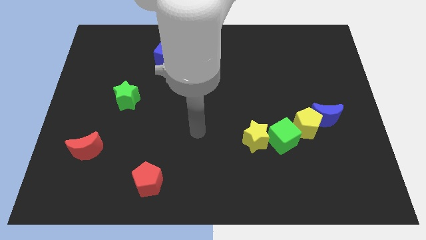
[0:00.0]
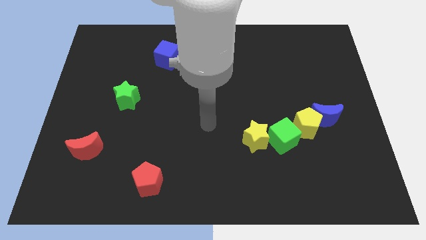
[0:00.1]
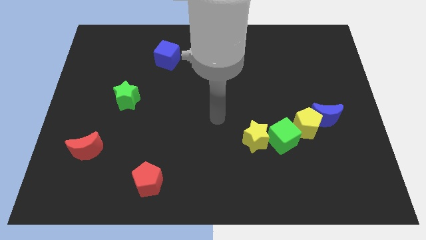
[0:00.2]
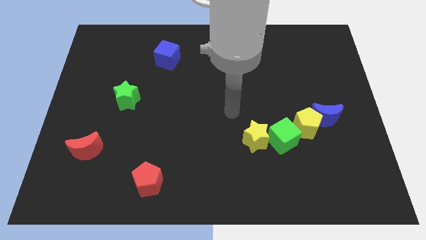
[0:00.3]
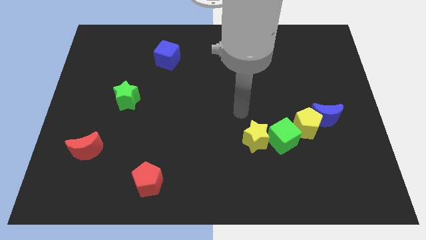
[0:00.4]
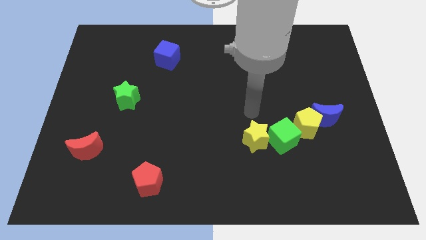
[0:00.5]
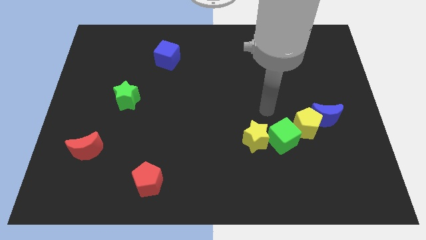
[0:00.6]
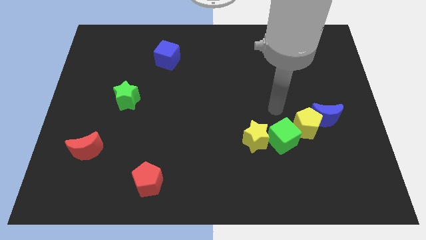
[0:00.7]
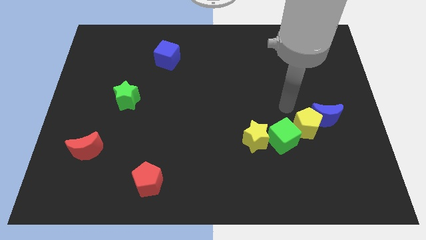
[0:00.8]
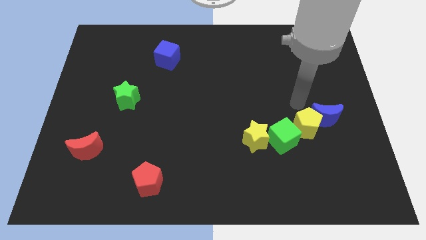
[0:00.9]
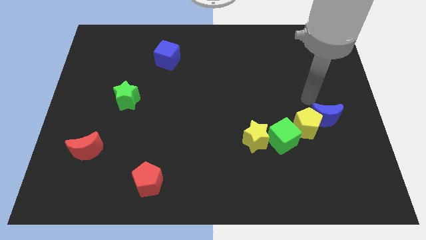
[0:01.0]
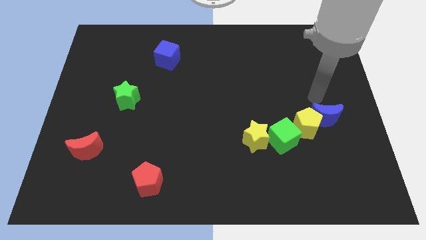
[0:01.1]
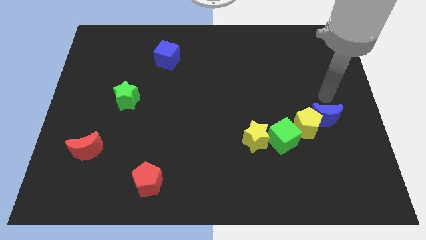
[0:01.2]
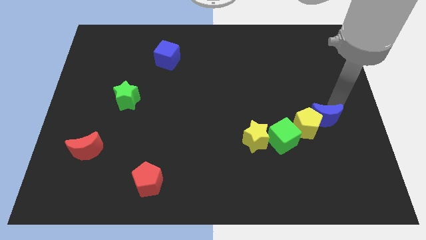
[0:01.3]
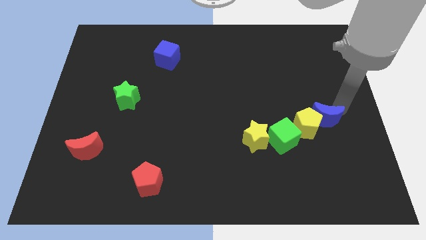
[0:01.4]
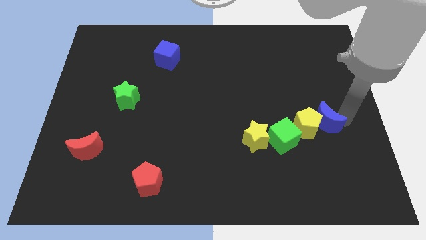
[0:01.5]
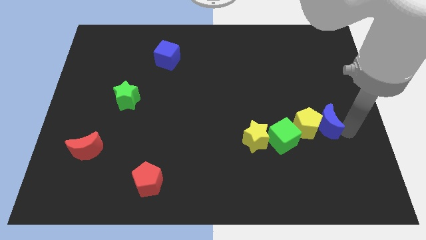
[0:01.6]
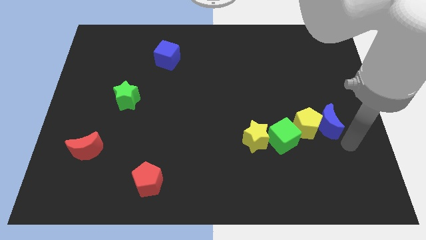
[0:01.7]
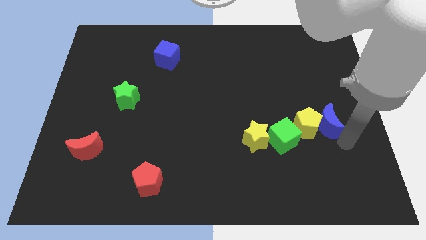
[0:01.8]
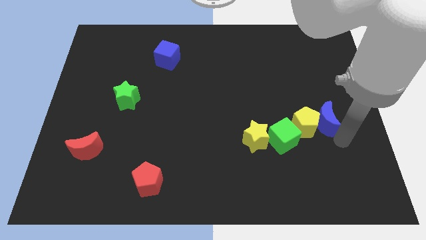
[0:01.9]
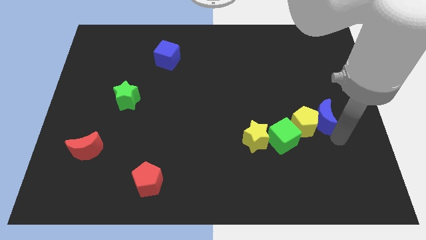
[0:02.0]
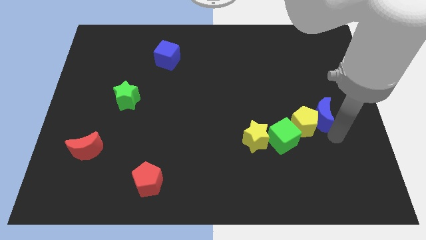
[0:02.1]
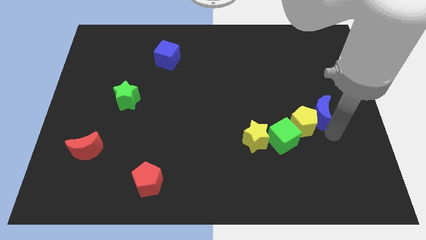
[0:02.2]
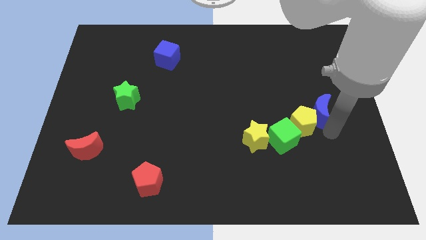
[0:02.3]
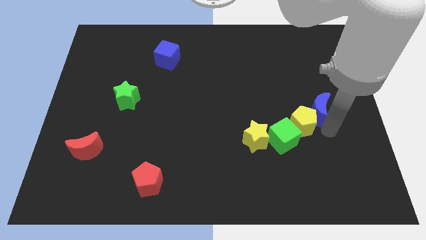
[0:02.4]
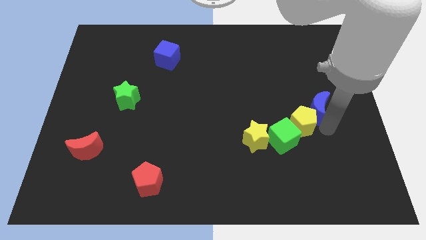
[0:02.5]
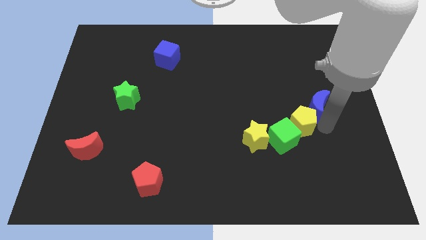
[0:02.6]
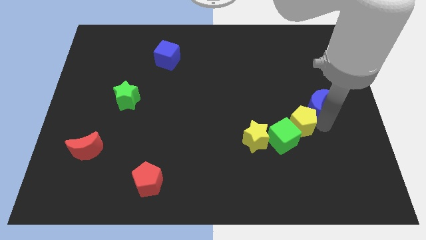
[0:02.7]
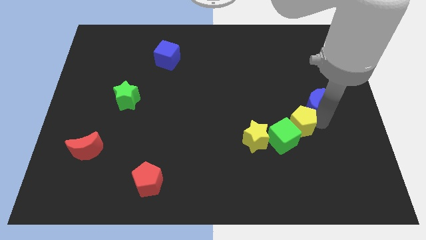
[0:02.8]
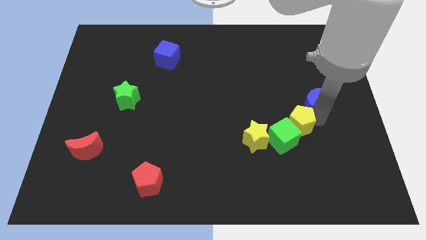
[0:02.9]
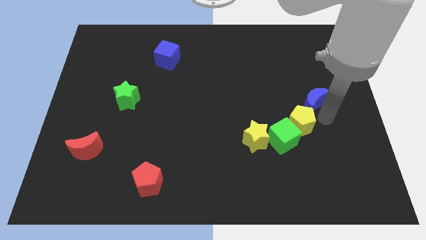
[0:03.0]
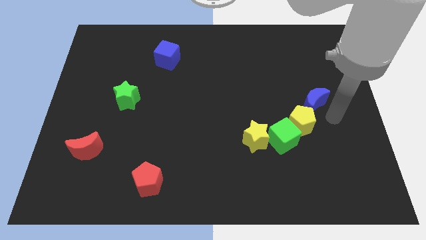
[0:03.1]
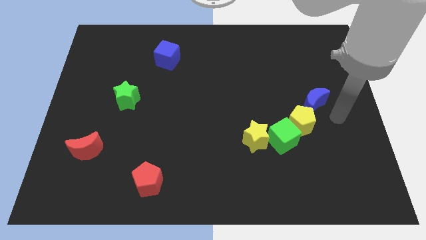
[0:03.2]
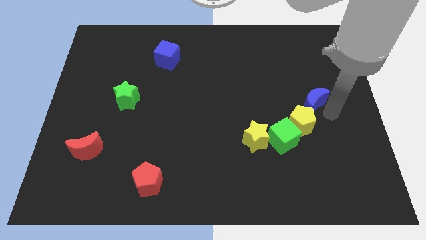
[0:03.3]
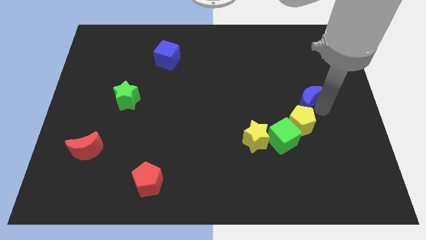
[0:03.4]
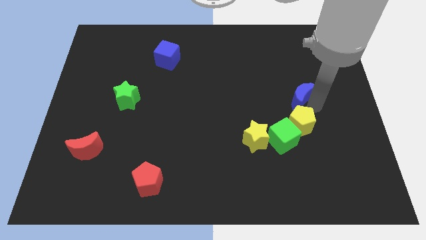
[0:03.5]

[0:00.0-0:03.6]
slightly push the blue moon up and to the left diagonally

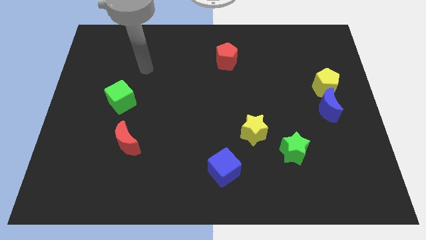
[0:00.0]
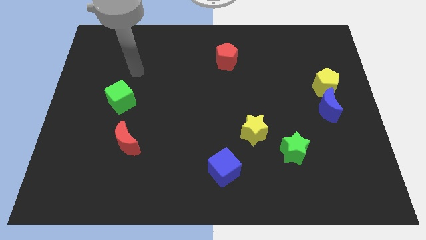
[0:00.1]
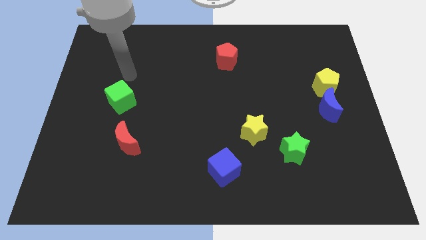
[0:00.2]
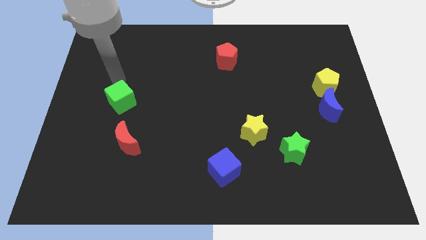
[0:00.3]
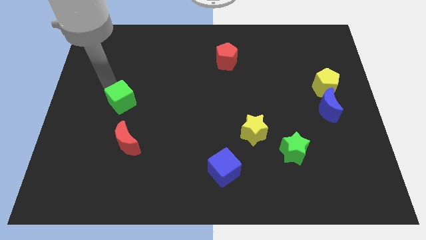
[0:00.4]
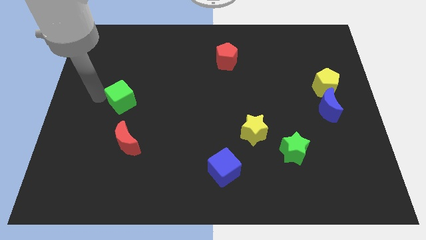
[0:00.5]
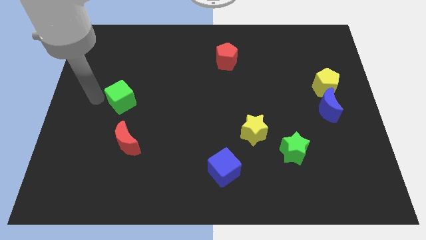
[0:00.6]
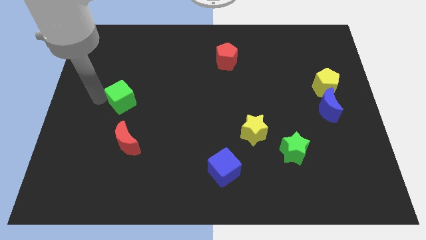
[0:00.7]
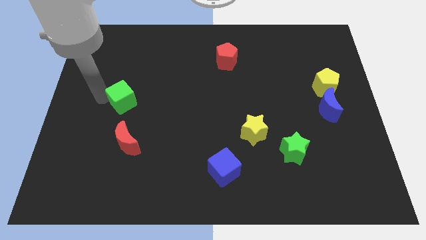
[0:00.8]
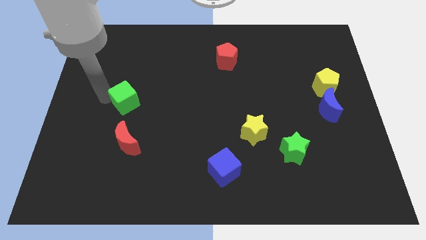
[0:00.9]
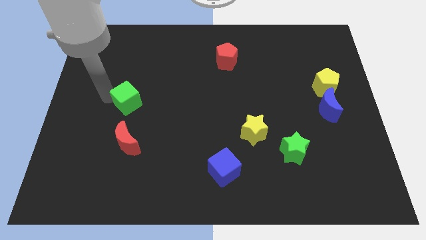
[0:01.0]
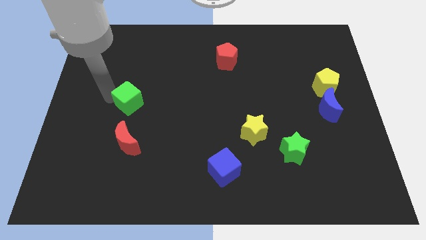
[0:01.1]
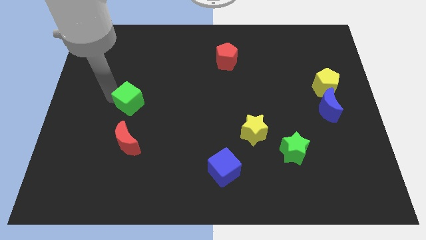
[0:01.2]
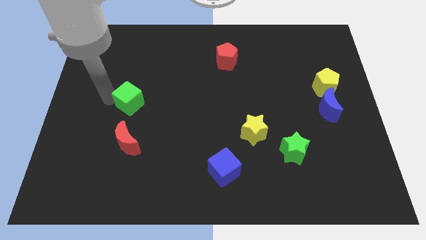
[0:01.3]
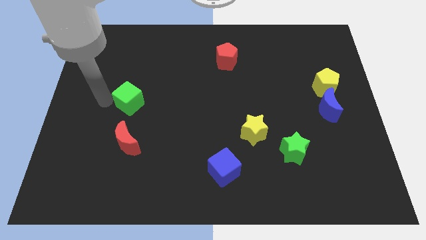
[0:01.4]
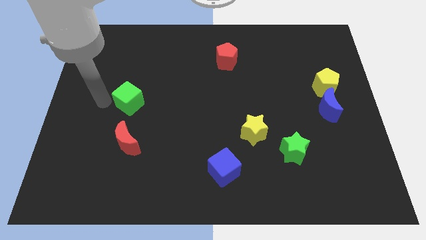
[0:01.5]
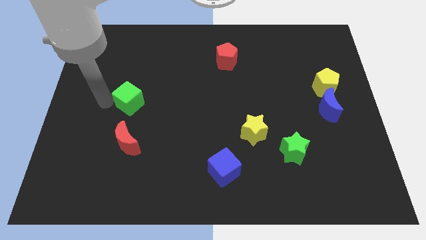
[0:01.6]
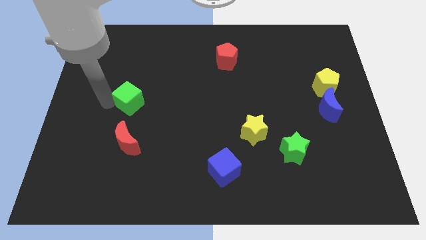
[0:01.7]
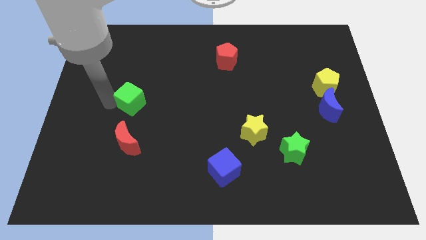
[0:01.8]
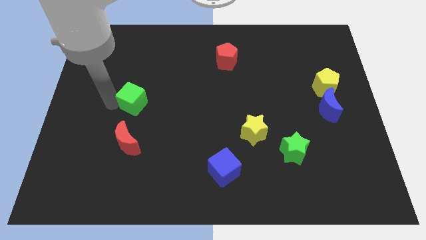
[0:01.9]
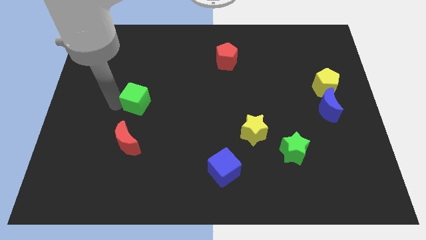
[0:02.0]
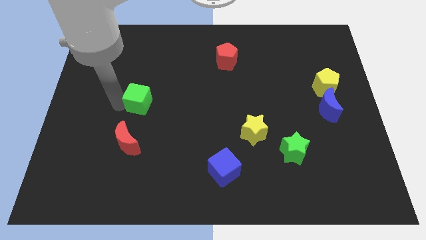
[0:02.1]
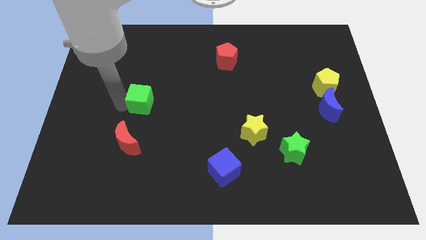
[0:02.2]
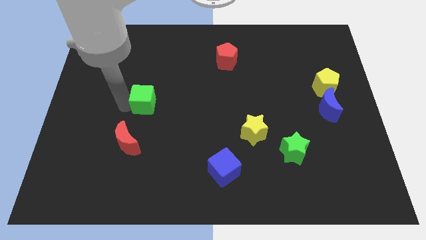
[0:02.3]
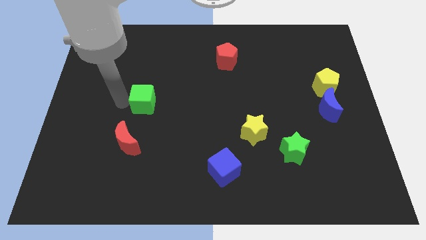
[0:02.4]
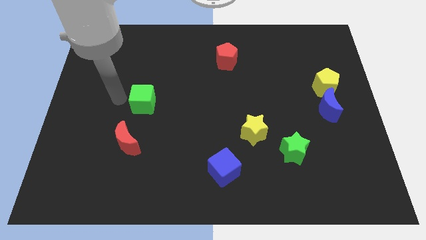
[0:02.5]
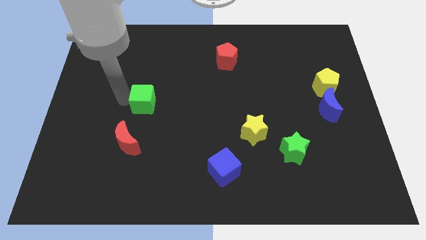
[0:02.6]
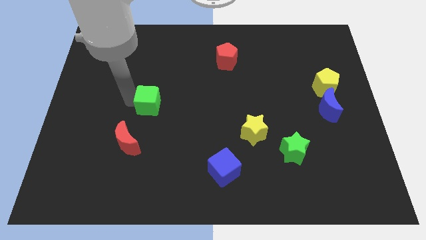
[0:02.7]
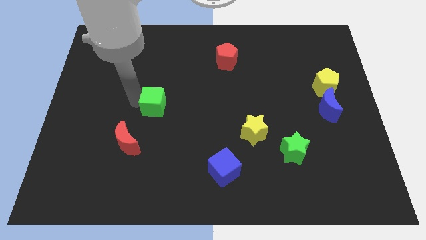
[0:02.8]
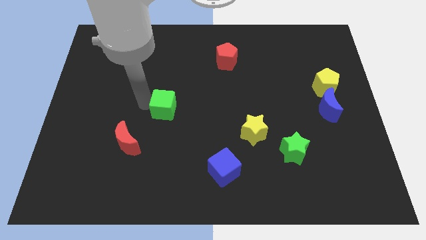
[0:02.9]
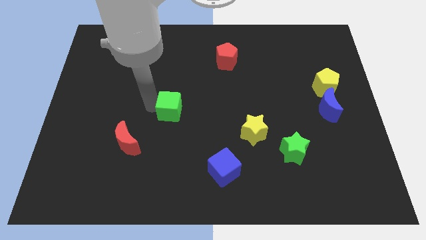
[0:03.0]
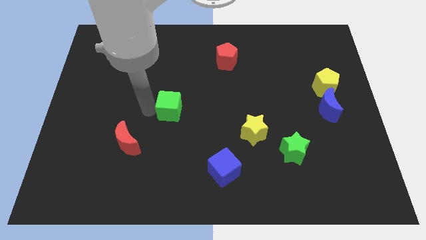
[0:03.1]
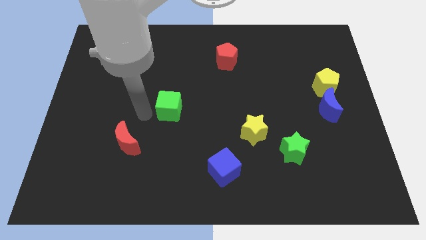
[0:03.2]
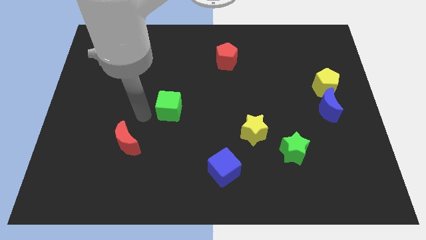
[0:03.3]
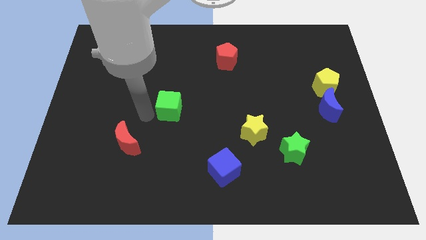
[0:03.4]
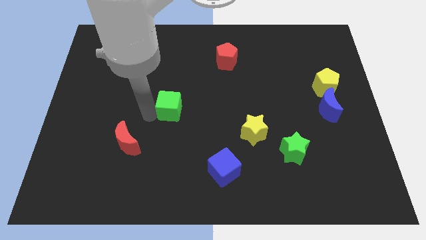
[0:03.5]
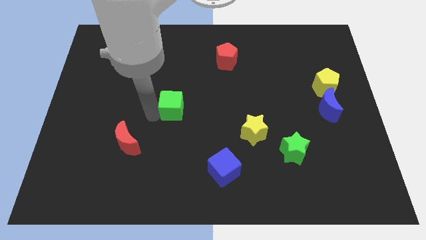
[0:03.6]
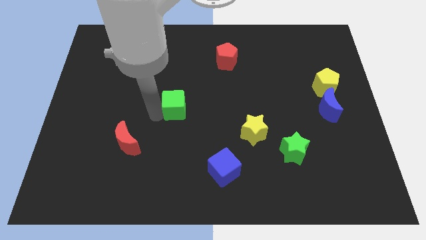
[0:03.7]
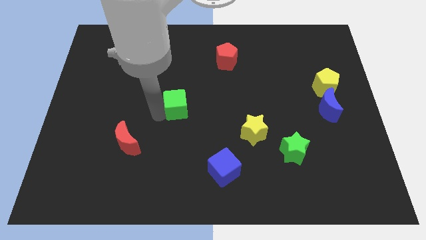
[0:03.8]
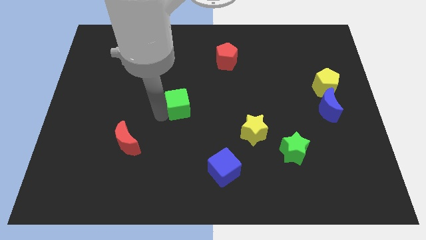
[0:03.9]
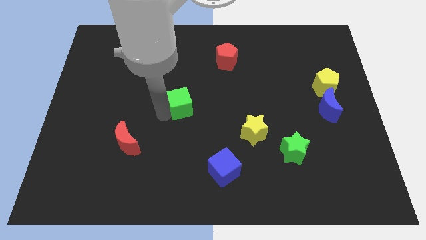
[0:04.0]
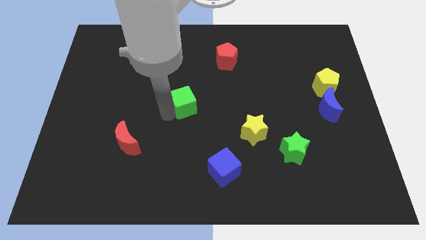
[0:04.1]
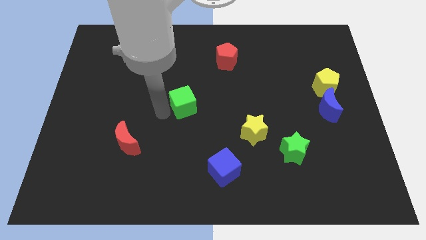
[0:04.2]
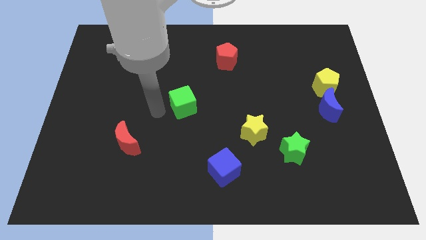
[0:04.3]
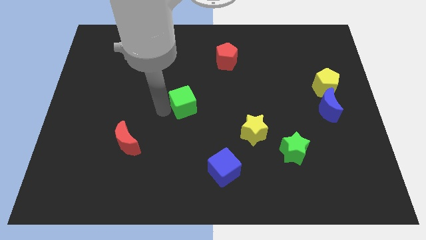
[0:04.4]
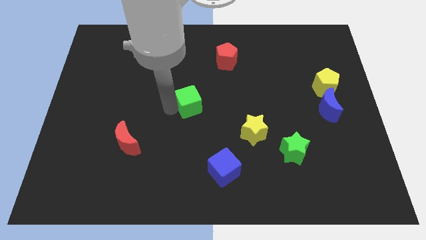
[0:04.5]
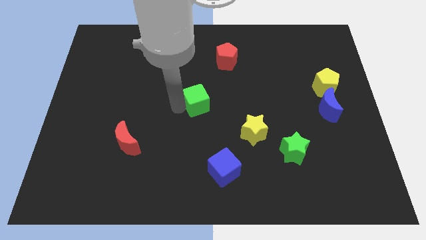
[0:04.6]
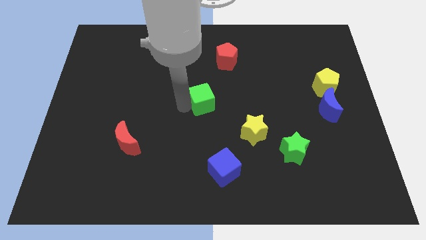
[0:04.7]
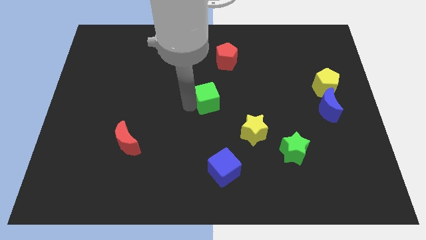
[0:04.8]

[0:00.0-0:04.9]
push the green cube right
